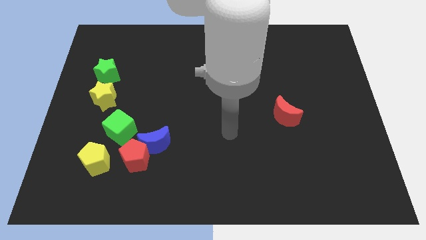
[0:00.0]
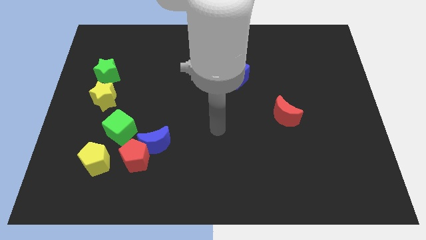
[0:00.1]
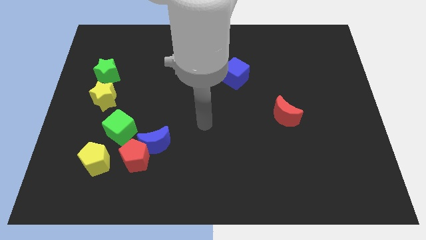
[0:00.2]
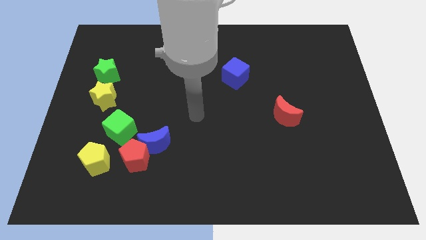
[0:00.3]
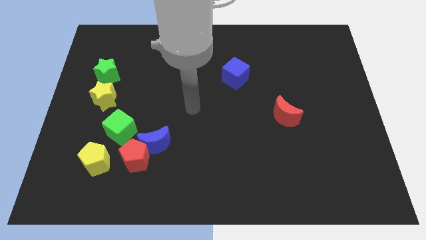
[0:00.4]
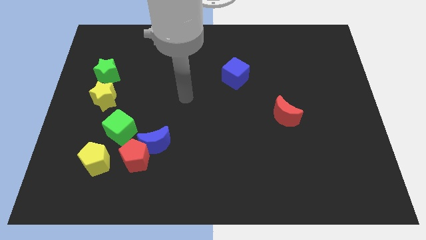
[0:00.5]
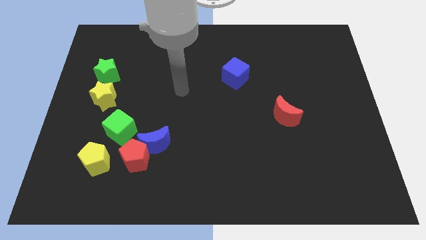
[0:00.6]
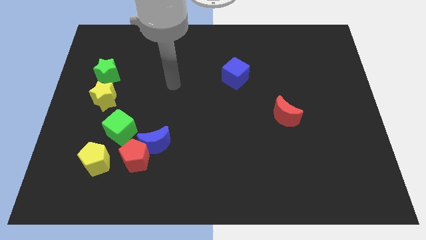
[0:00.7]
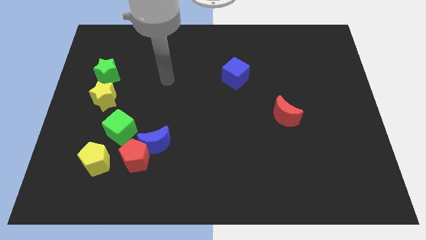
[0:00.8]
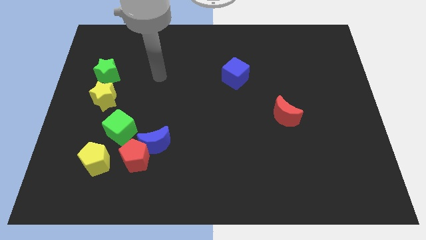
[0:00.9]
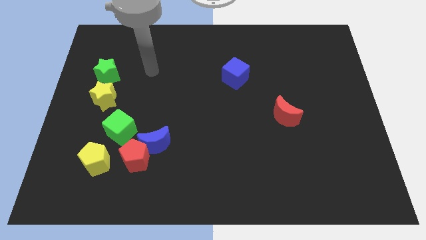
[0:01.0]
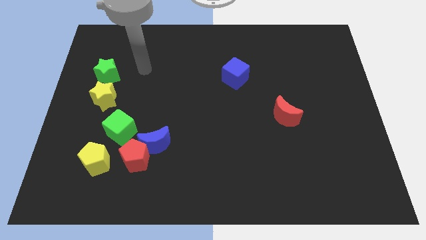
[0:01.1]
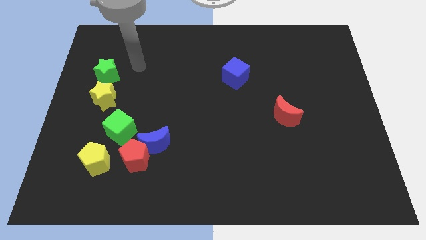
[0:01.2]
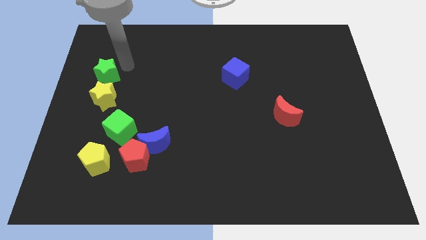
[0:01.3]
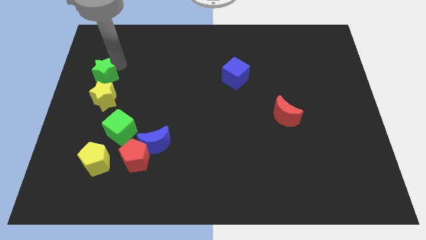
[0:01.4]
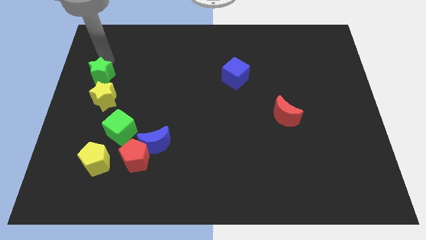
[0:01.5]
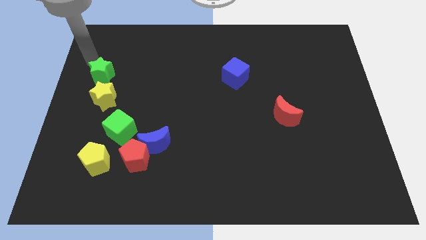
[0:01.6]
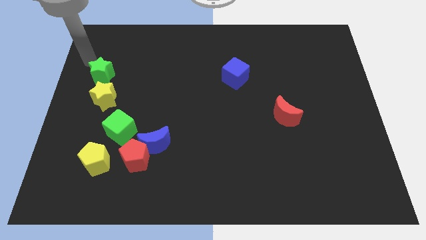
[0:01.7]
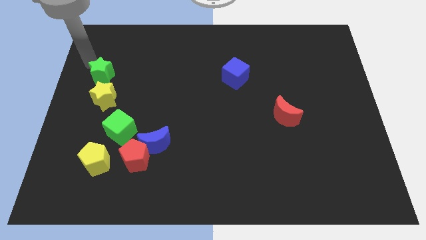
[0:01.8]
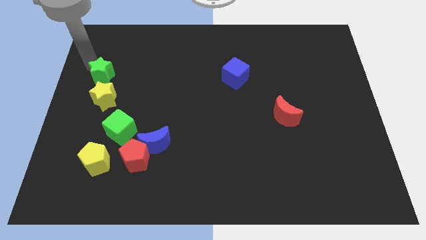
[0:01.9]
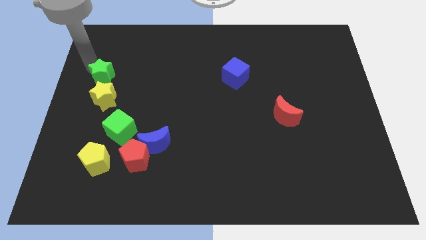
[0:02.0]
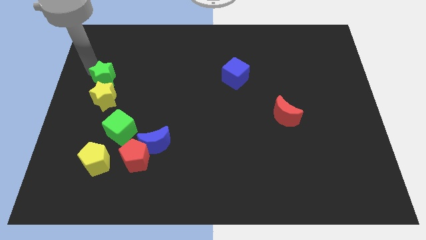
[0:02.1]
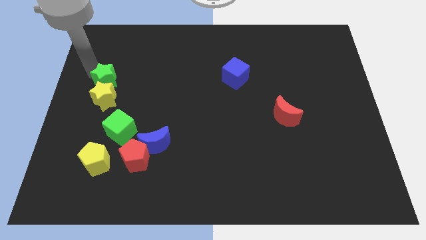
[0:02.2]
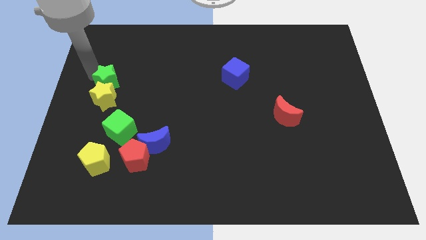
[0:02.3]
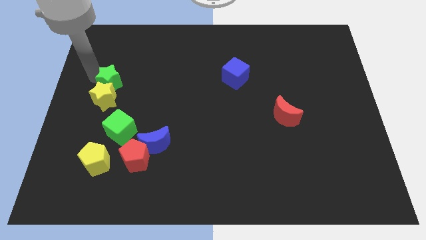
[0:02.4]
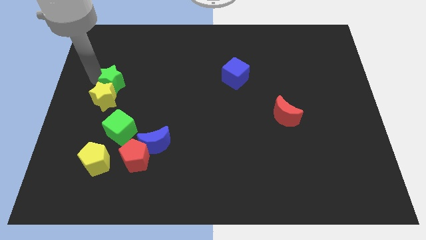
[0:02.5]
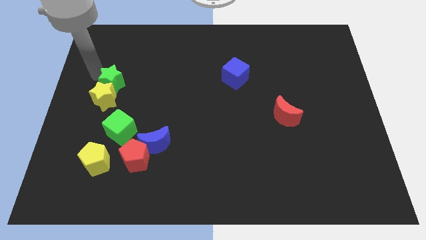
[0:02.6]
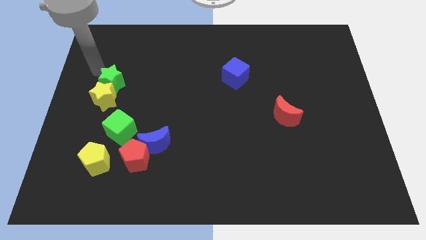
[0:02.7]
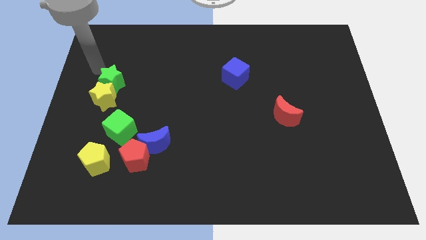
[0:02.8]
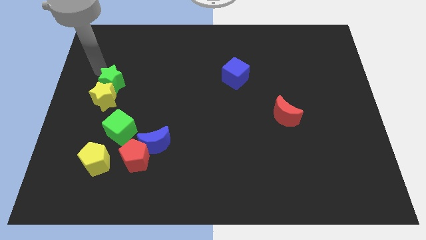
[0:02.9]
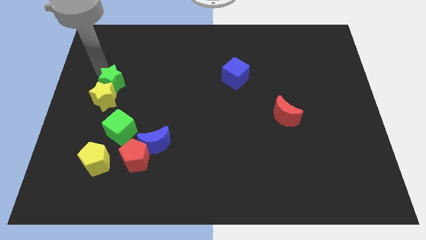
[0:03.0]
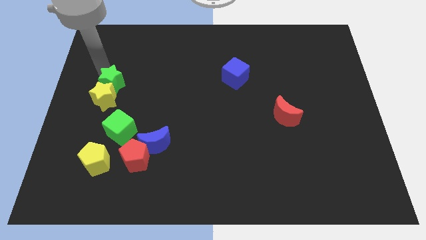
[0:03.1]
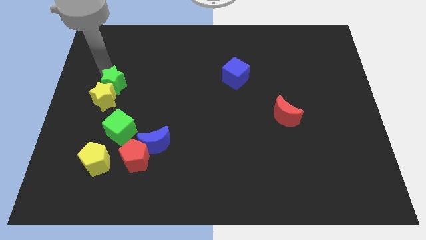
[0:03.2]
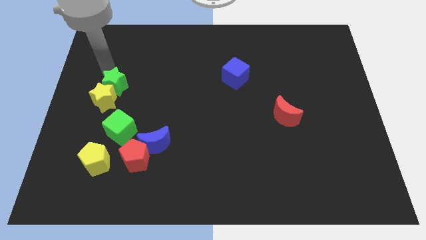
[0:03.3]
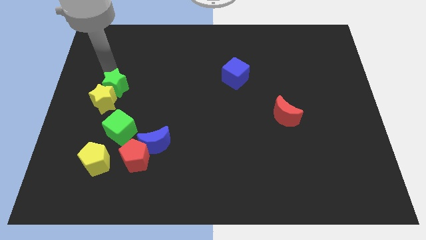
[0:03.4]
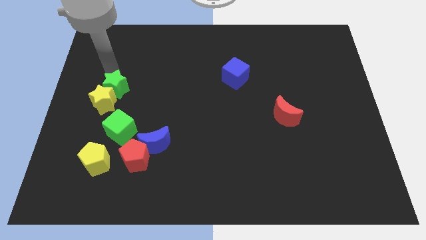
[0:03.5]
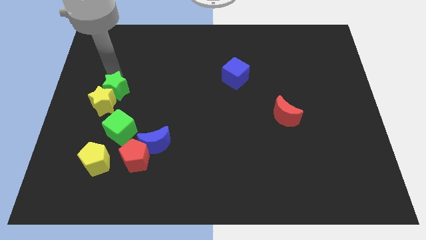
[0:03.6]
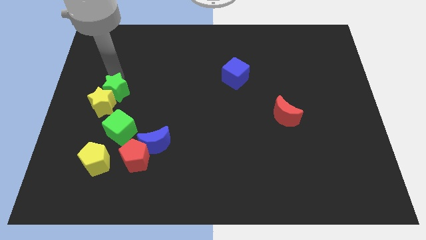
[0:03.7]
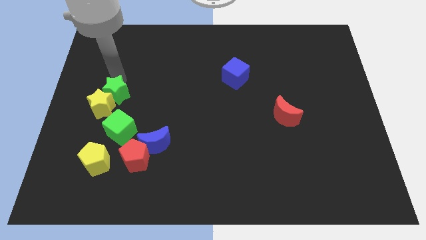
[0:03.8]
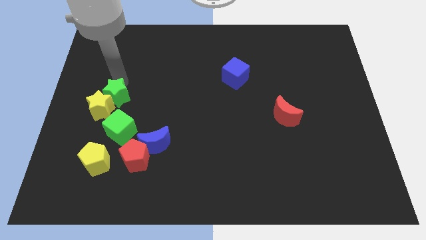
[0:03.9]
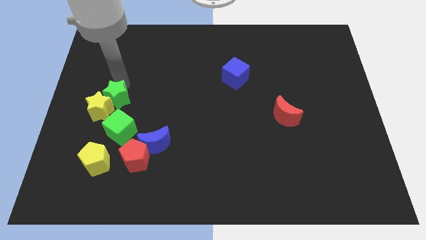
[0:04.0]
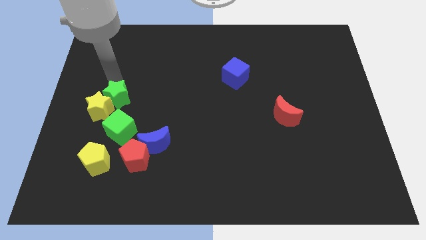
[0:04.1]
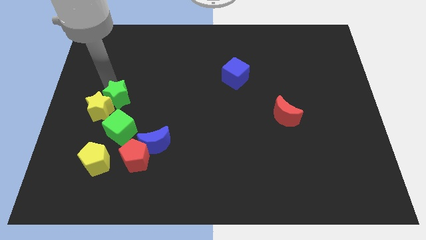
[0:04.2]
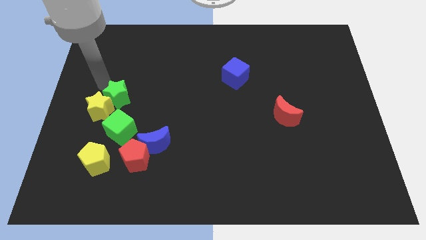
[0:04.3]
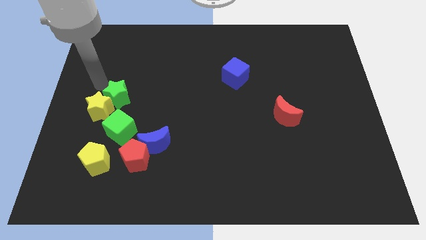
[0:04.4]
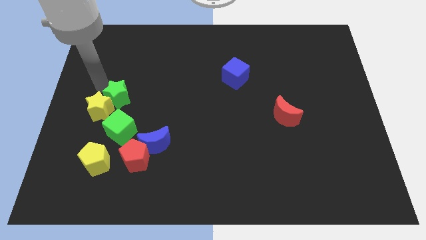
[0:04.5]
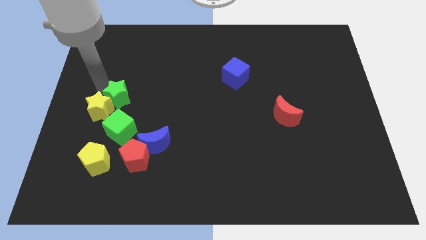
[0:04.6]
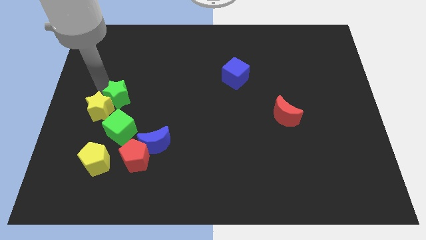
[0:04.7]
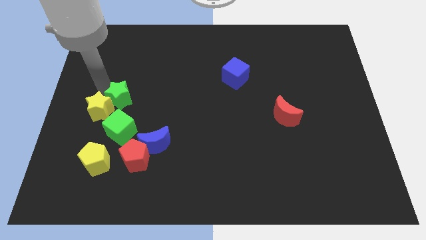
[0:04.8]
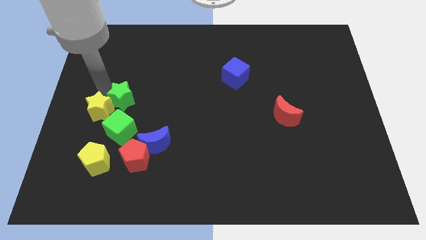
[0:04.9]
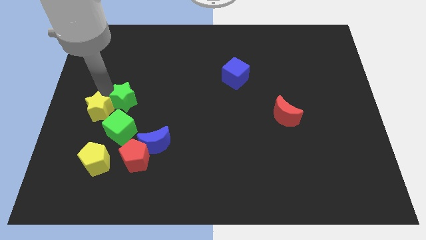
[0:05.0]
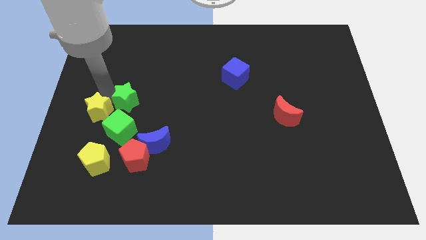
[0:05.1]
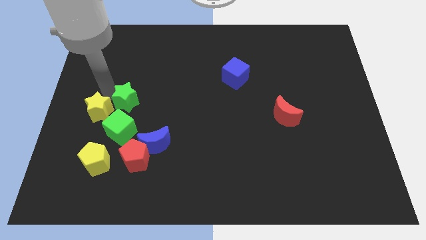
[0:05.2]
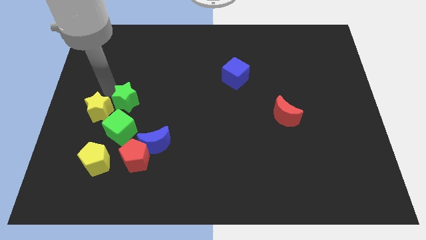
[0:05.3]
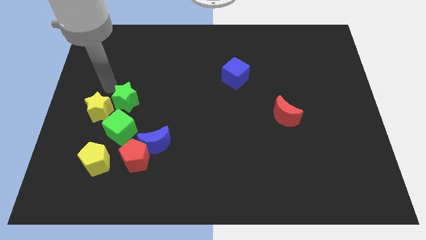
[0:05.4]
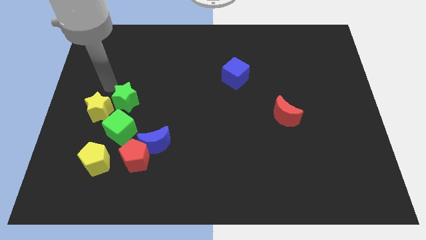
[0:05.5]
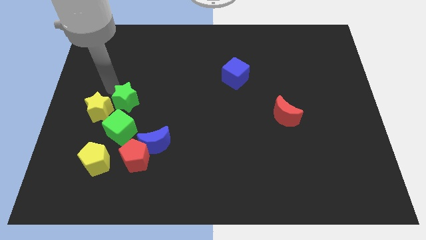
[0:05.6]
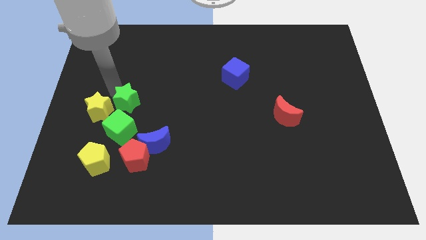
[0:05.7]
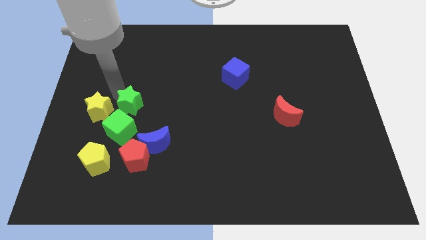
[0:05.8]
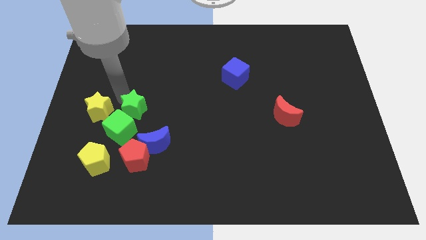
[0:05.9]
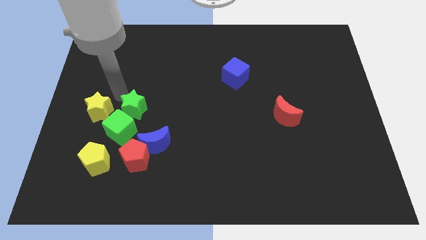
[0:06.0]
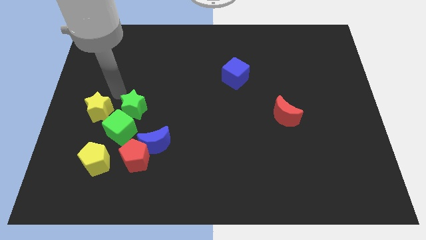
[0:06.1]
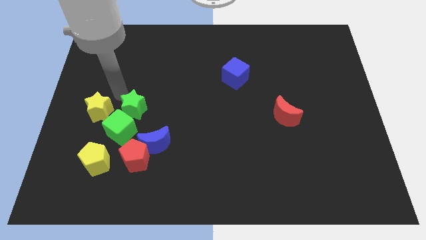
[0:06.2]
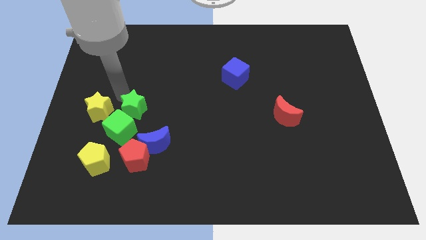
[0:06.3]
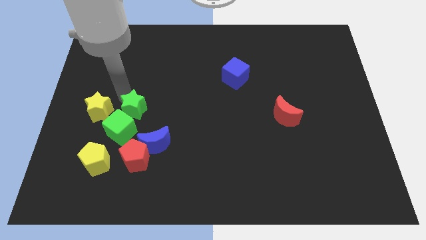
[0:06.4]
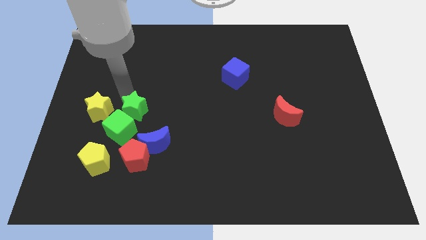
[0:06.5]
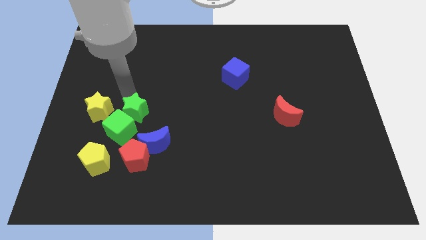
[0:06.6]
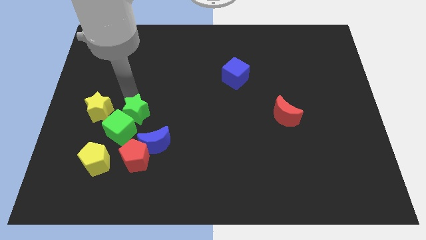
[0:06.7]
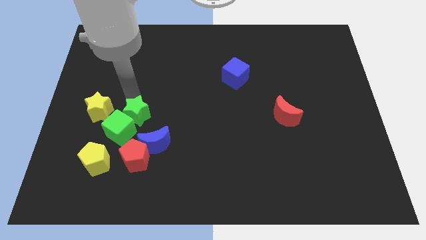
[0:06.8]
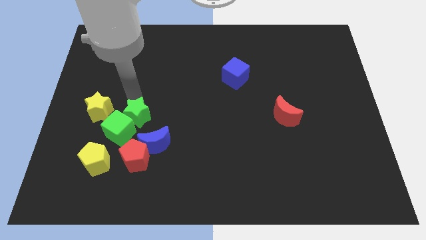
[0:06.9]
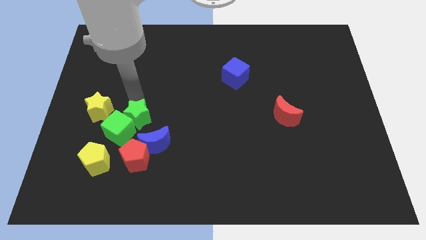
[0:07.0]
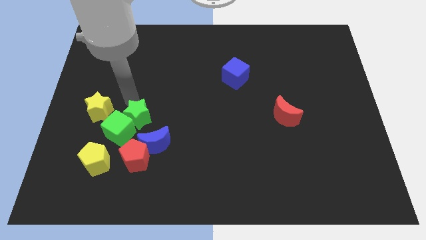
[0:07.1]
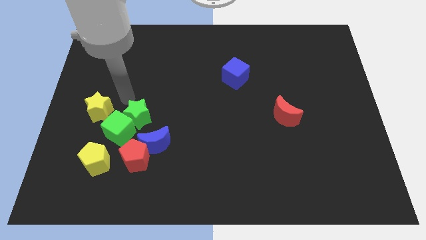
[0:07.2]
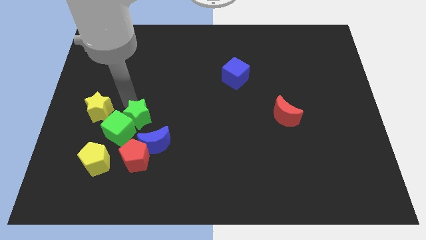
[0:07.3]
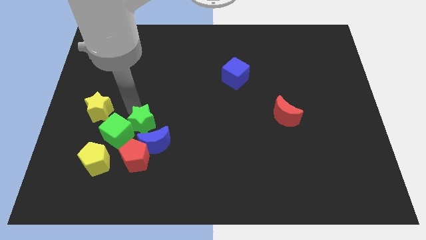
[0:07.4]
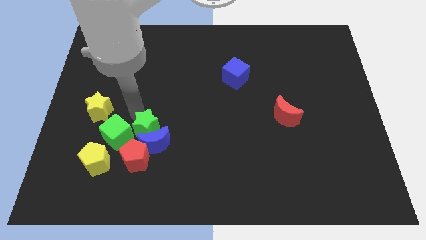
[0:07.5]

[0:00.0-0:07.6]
move the green star towards the blue moon
